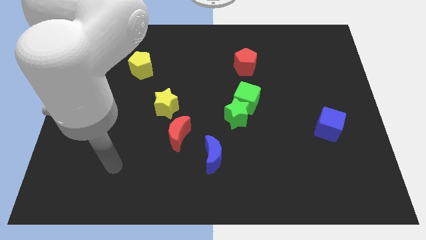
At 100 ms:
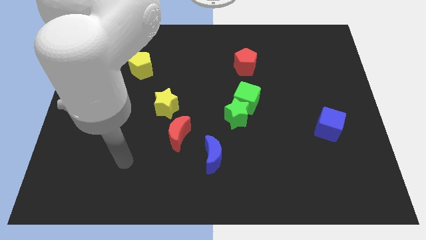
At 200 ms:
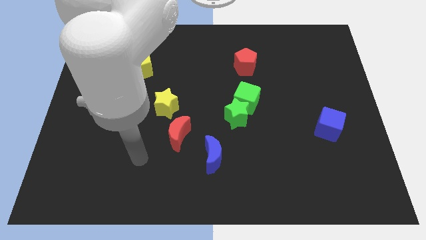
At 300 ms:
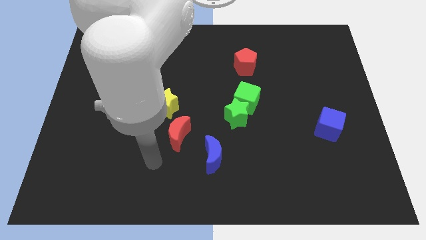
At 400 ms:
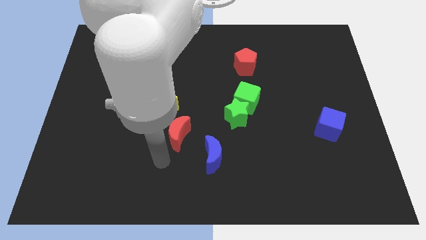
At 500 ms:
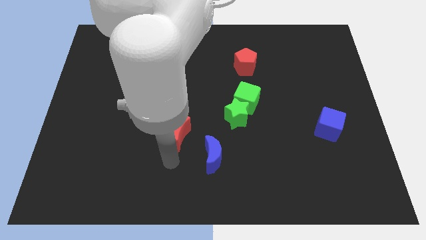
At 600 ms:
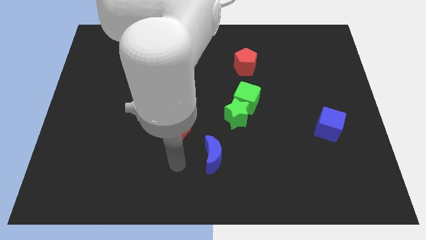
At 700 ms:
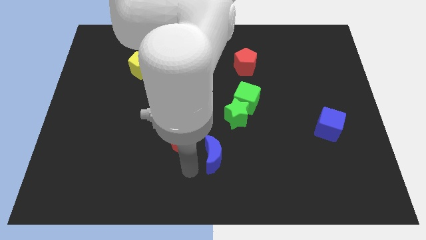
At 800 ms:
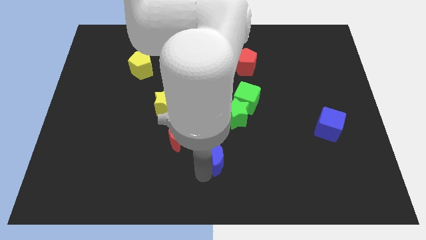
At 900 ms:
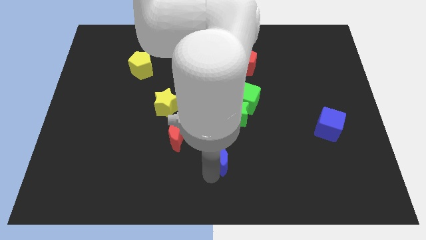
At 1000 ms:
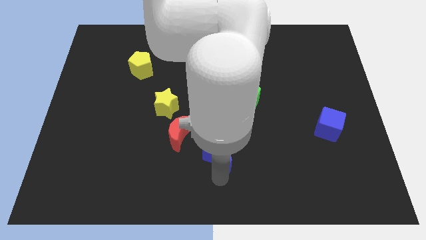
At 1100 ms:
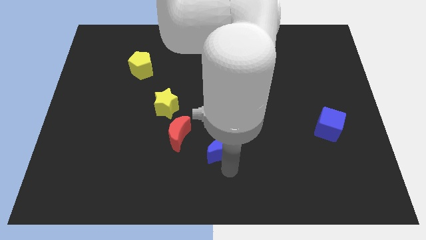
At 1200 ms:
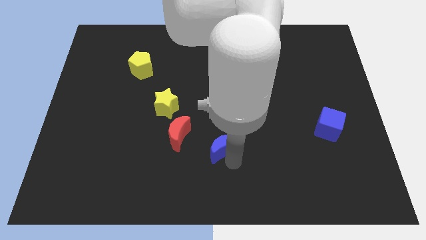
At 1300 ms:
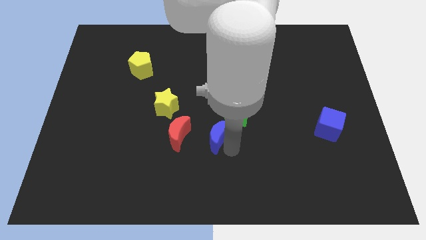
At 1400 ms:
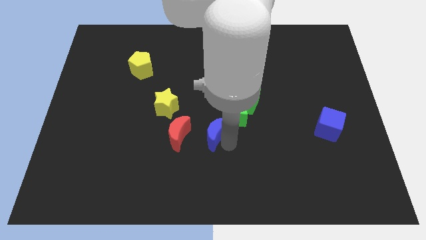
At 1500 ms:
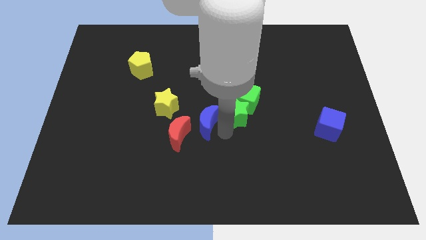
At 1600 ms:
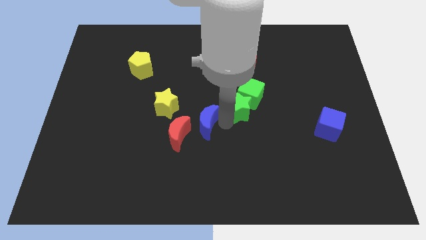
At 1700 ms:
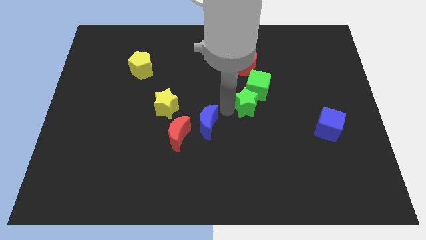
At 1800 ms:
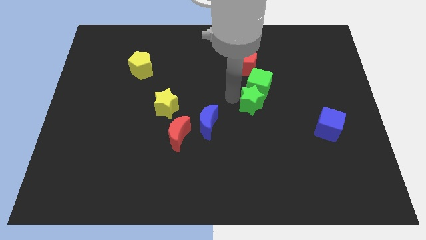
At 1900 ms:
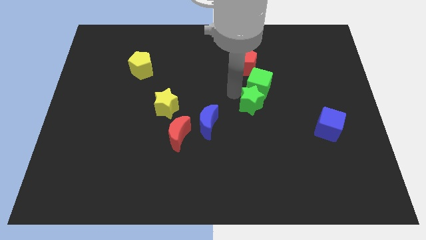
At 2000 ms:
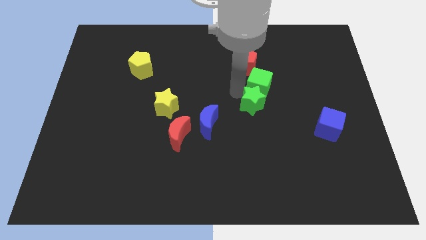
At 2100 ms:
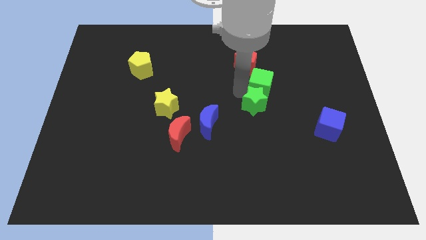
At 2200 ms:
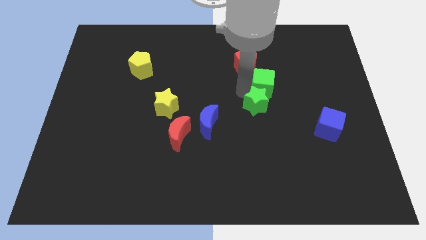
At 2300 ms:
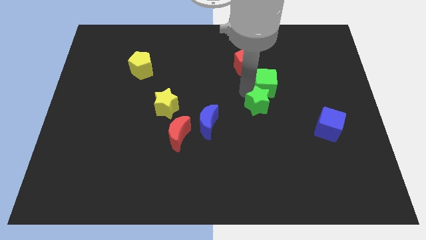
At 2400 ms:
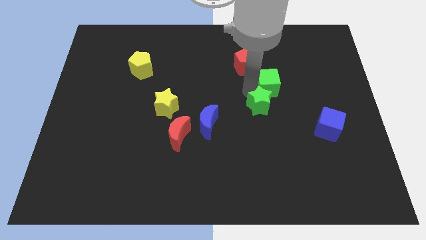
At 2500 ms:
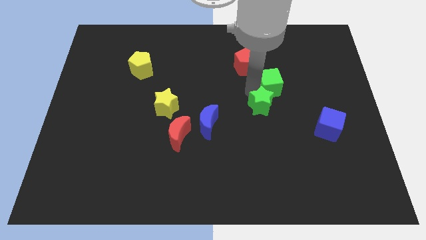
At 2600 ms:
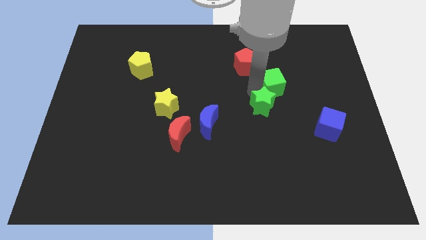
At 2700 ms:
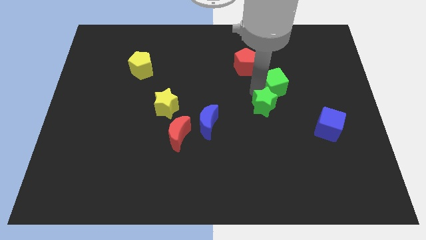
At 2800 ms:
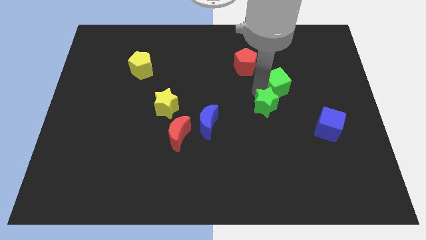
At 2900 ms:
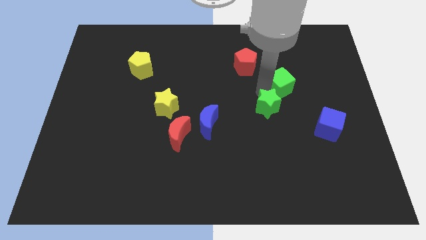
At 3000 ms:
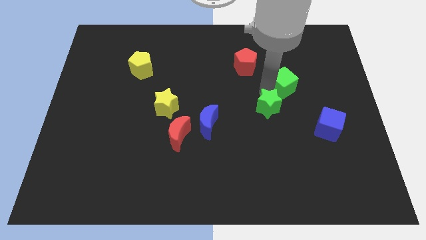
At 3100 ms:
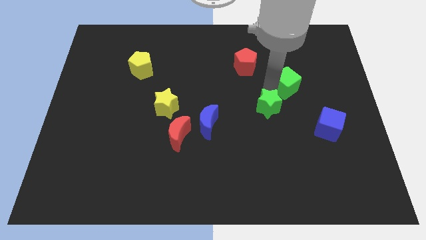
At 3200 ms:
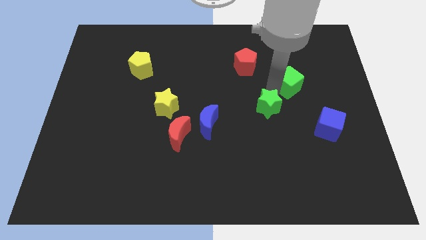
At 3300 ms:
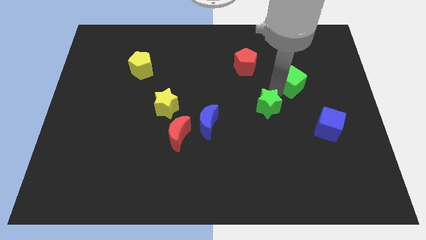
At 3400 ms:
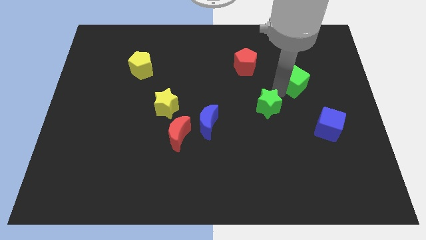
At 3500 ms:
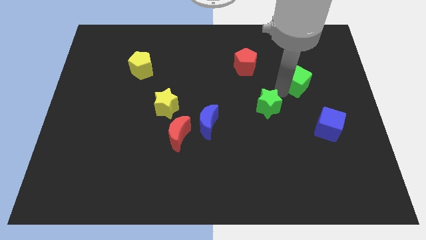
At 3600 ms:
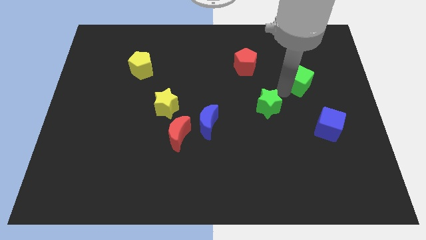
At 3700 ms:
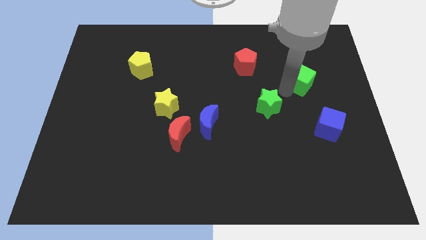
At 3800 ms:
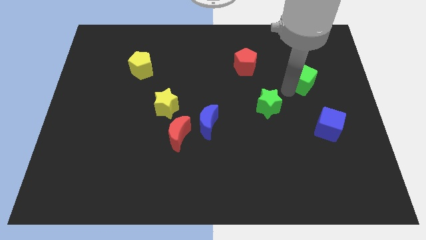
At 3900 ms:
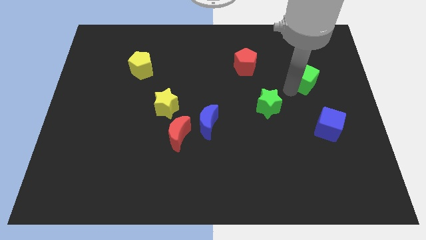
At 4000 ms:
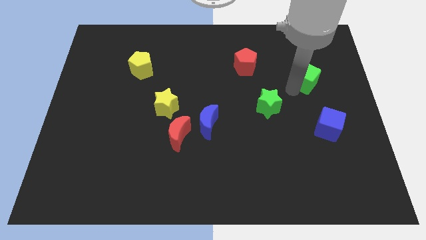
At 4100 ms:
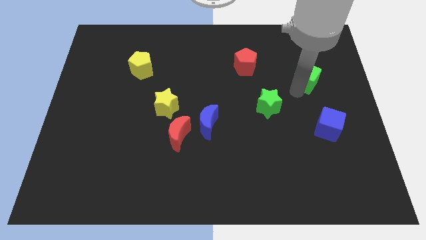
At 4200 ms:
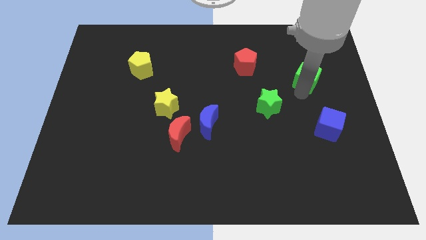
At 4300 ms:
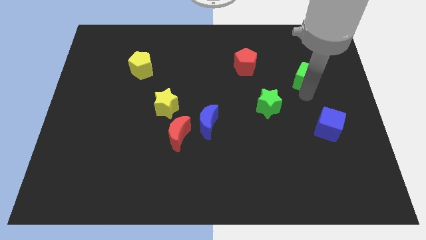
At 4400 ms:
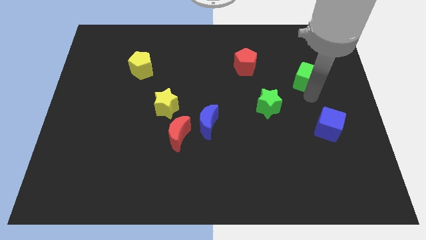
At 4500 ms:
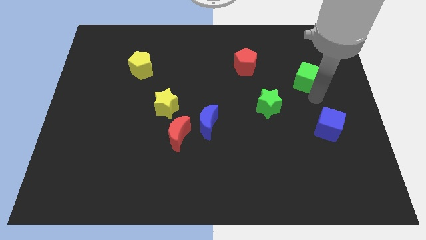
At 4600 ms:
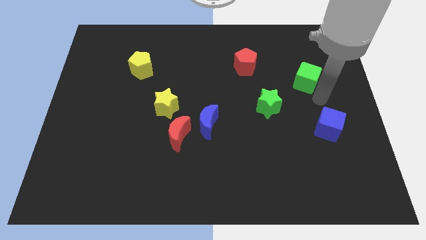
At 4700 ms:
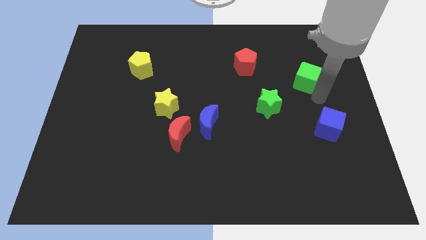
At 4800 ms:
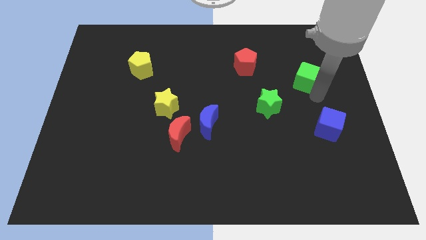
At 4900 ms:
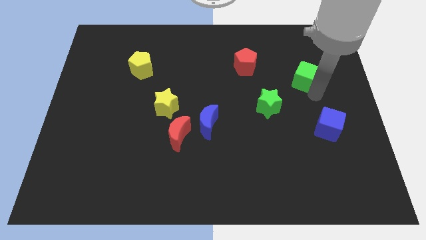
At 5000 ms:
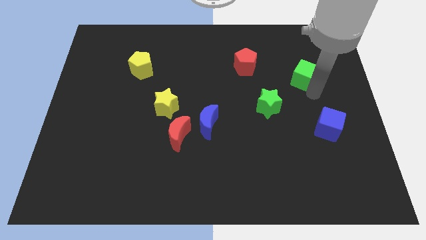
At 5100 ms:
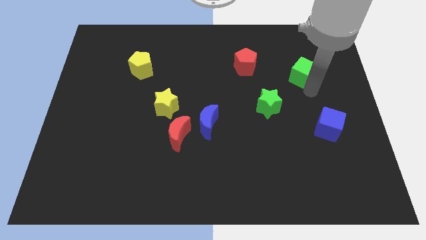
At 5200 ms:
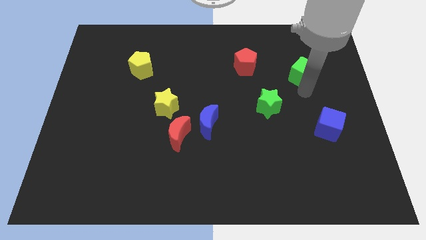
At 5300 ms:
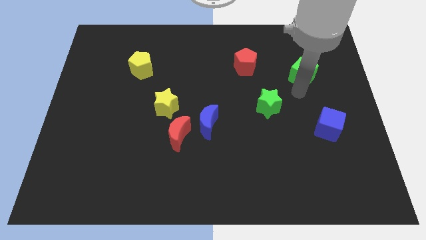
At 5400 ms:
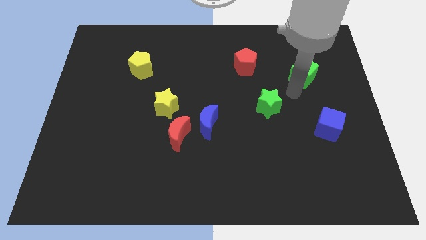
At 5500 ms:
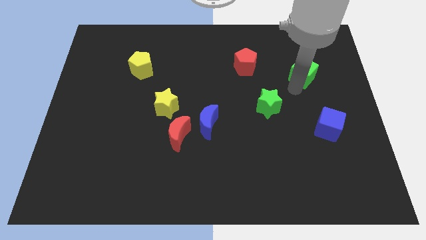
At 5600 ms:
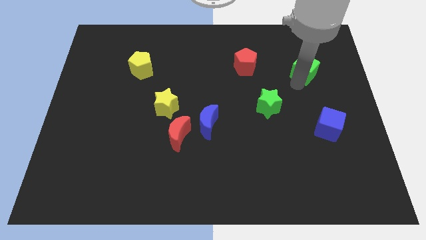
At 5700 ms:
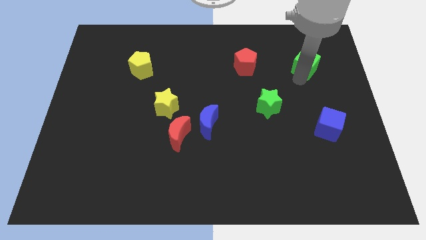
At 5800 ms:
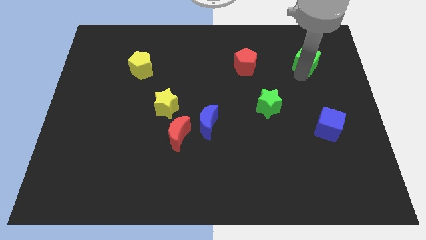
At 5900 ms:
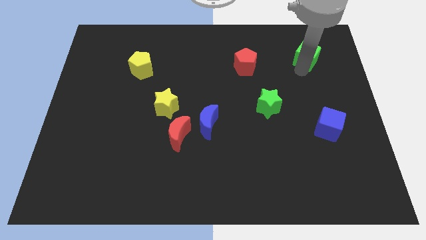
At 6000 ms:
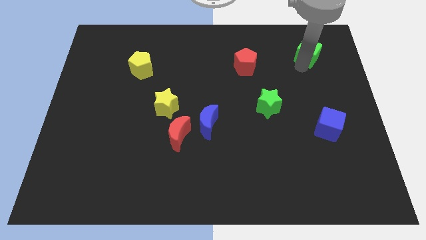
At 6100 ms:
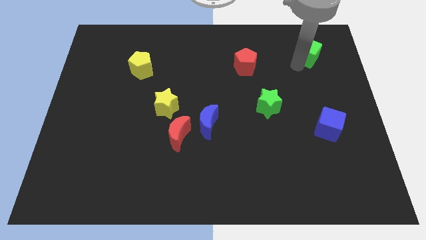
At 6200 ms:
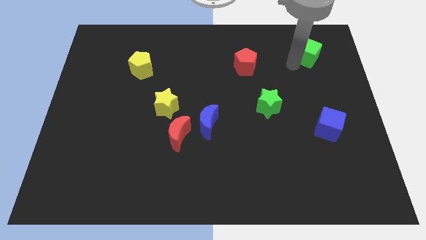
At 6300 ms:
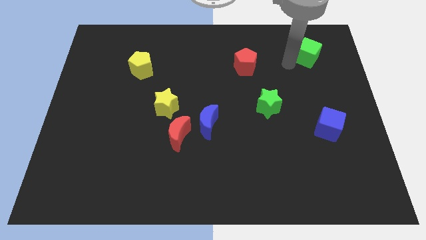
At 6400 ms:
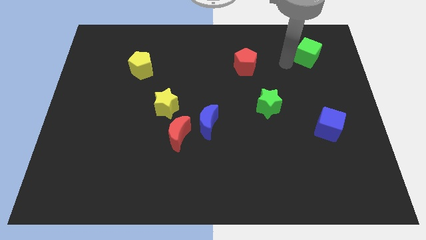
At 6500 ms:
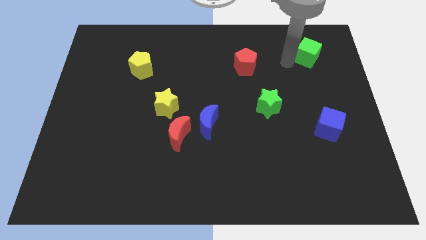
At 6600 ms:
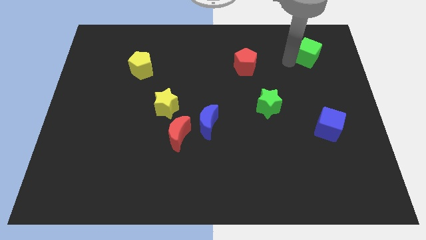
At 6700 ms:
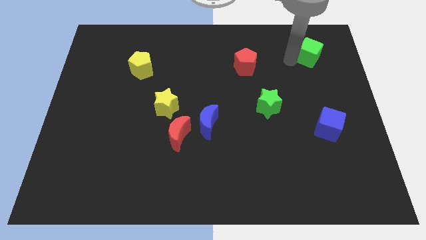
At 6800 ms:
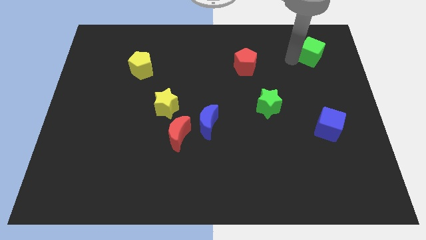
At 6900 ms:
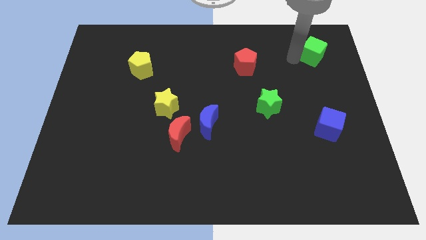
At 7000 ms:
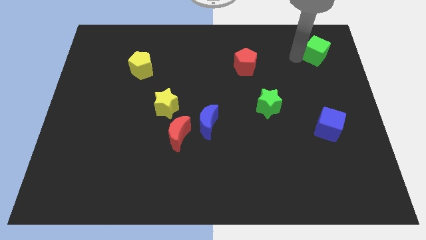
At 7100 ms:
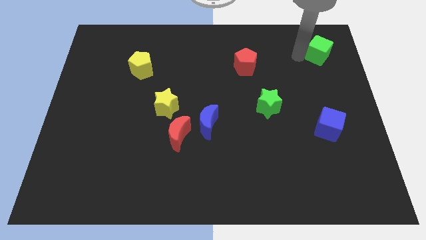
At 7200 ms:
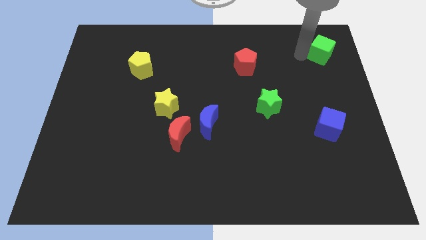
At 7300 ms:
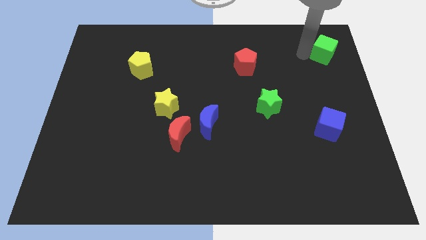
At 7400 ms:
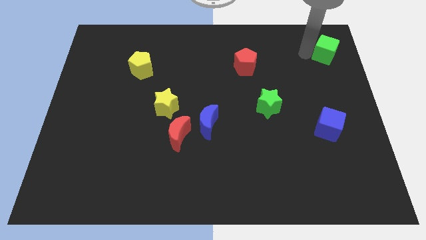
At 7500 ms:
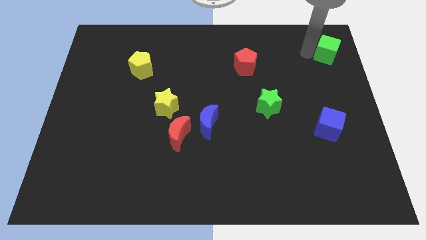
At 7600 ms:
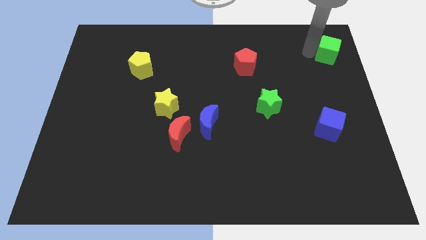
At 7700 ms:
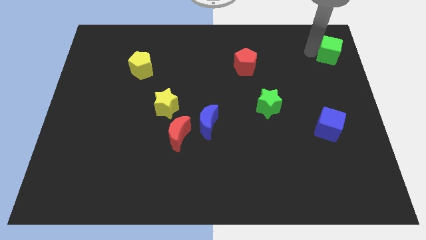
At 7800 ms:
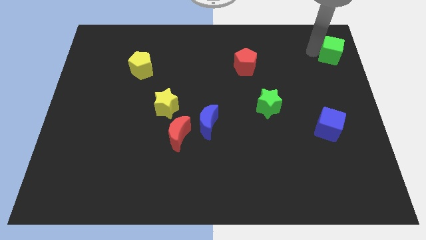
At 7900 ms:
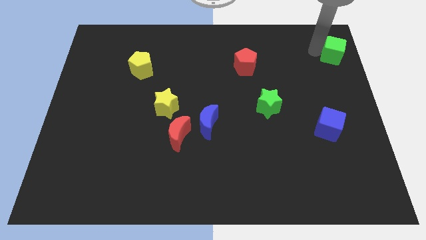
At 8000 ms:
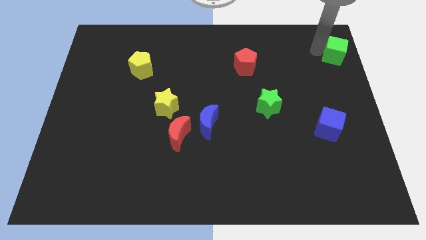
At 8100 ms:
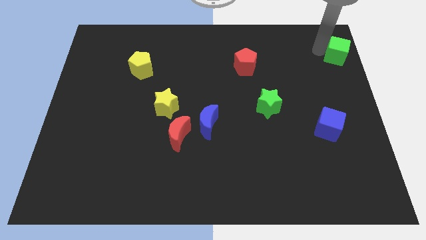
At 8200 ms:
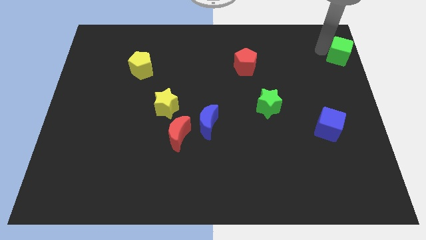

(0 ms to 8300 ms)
put the green cube to the top right of the board
